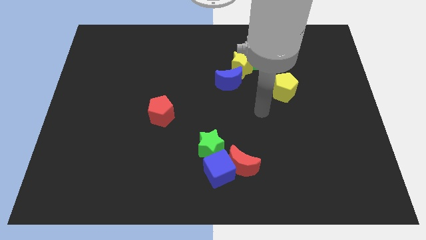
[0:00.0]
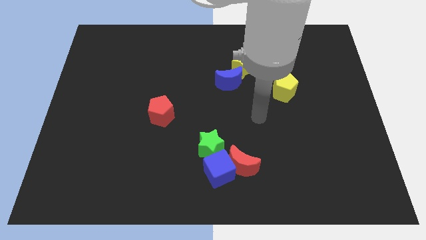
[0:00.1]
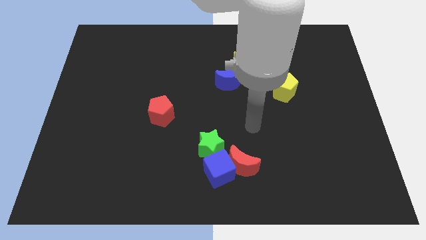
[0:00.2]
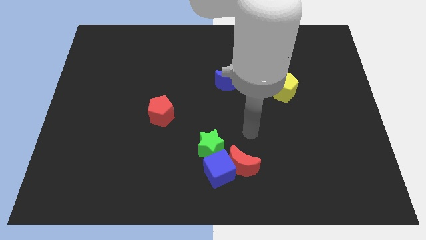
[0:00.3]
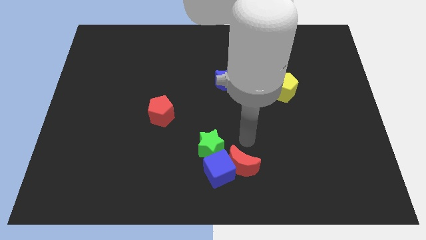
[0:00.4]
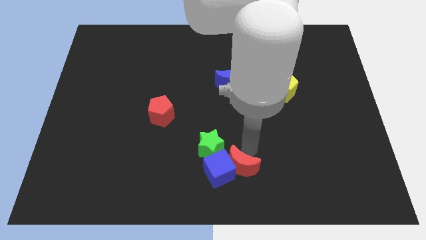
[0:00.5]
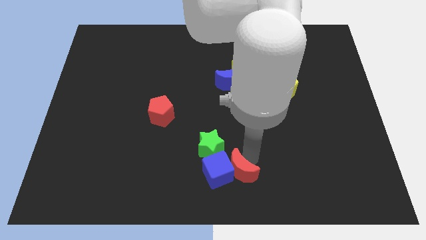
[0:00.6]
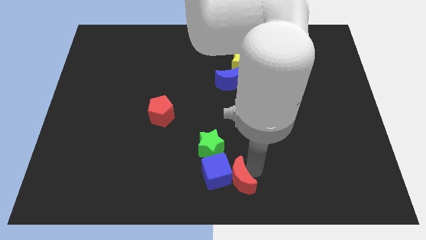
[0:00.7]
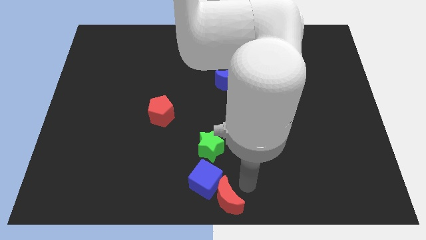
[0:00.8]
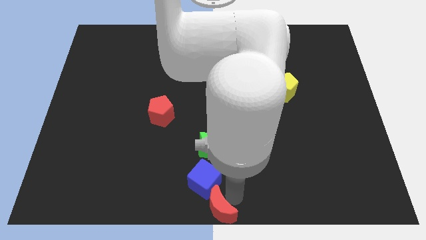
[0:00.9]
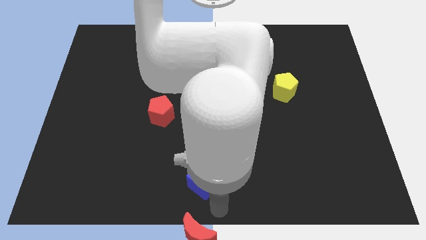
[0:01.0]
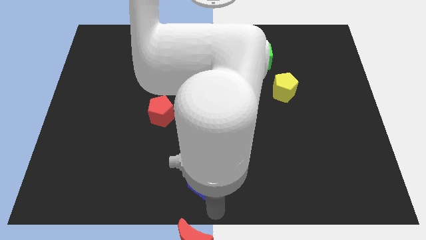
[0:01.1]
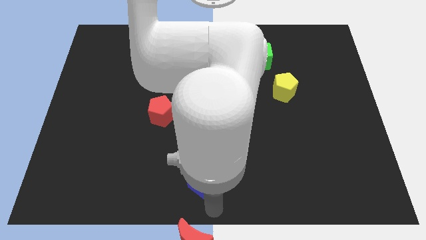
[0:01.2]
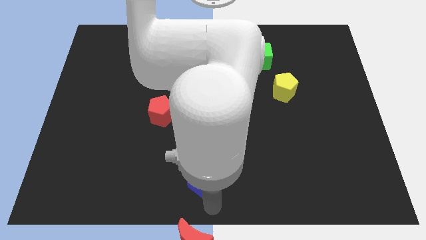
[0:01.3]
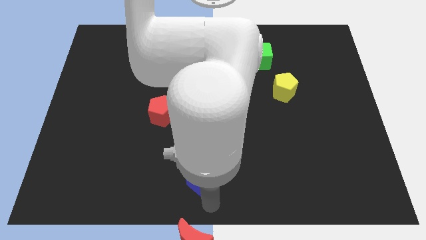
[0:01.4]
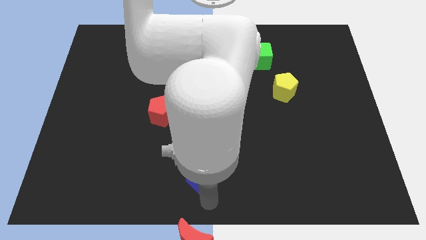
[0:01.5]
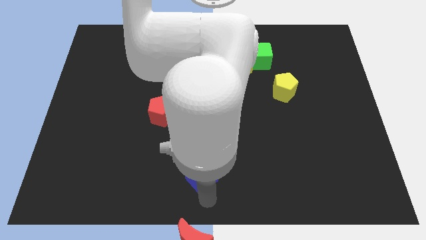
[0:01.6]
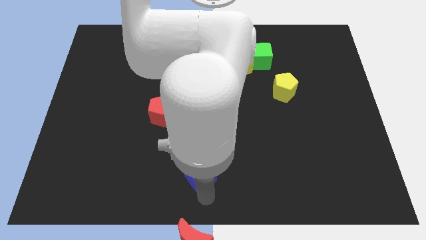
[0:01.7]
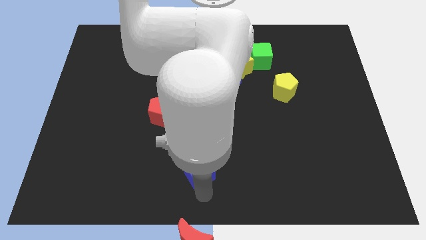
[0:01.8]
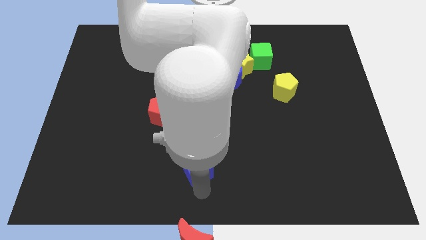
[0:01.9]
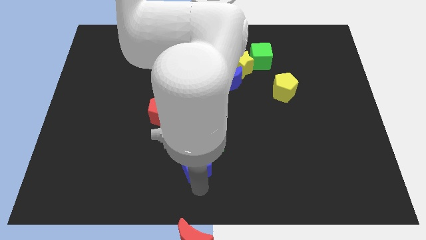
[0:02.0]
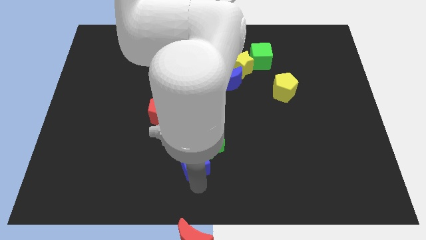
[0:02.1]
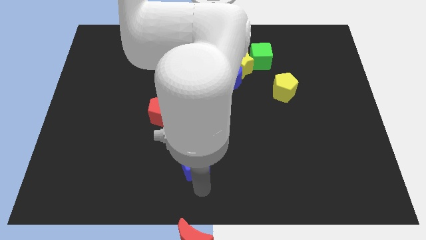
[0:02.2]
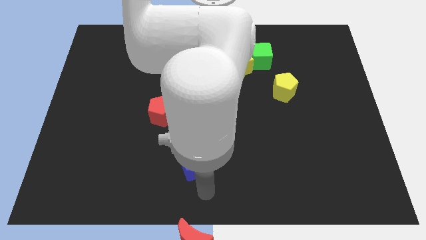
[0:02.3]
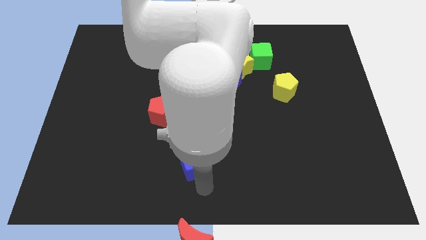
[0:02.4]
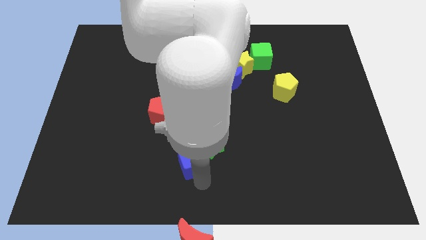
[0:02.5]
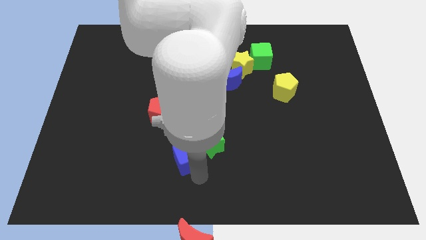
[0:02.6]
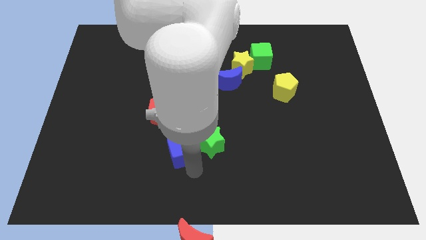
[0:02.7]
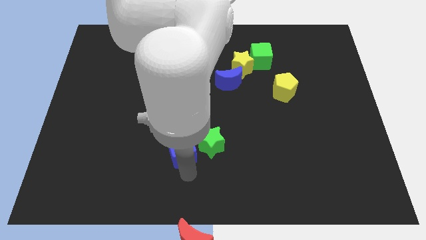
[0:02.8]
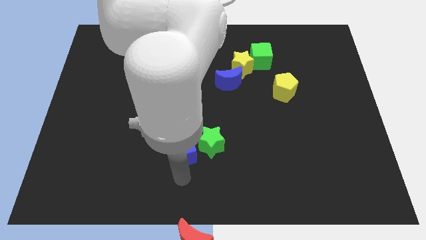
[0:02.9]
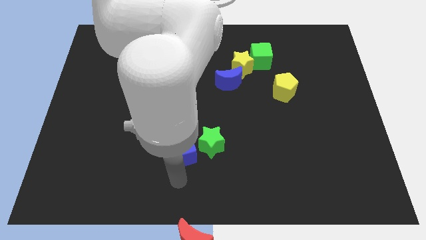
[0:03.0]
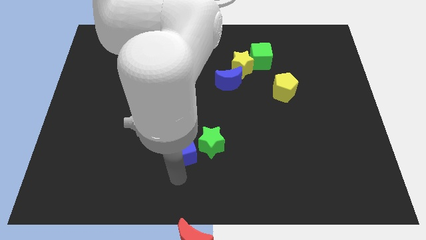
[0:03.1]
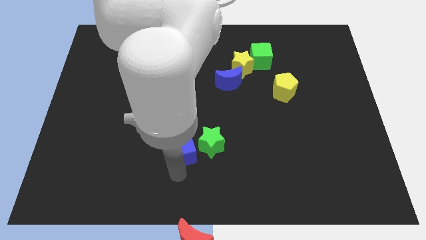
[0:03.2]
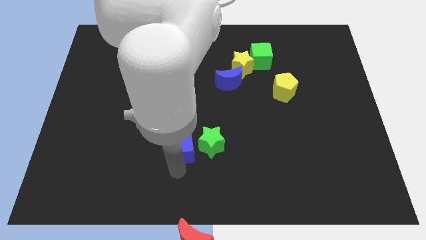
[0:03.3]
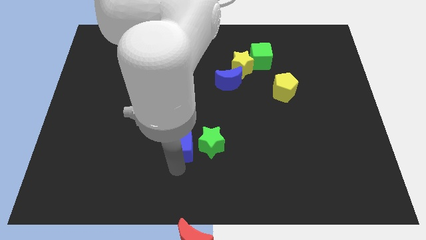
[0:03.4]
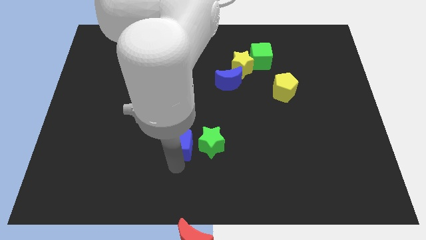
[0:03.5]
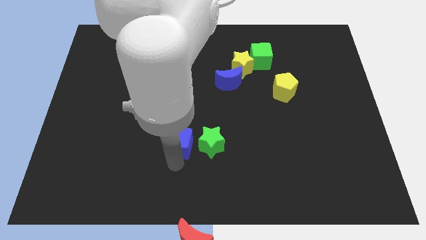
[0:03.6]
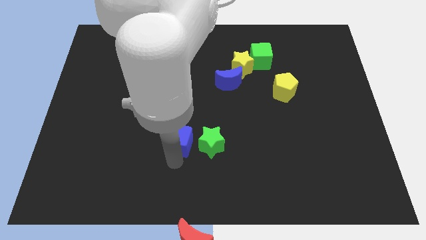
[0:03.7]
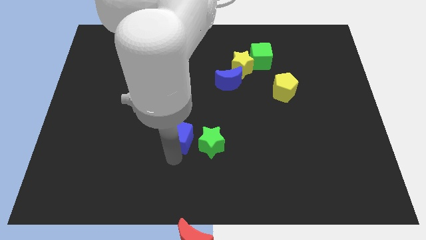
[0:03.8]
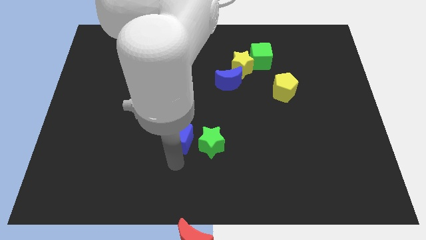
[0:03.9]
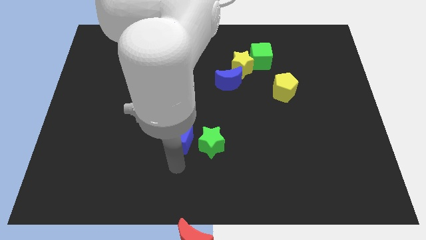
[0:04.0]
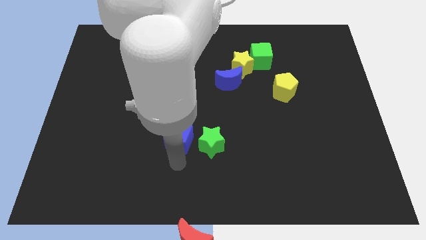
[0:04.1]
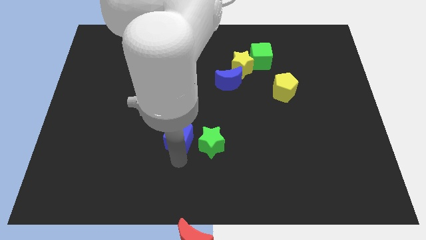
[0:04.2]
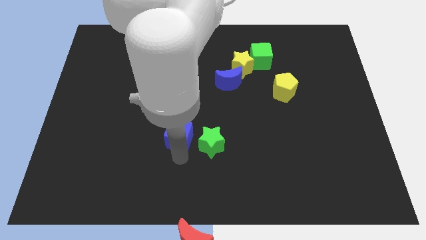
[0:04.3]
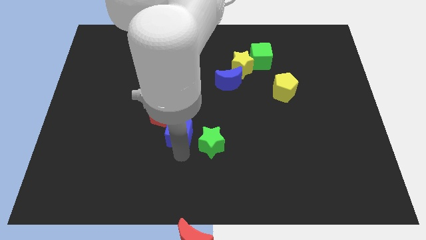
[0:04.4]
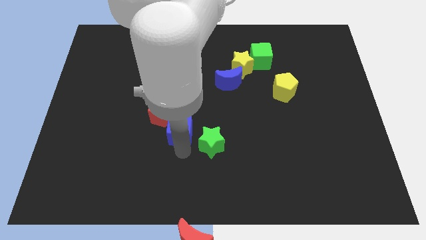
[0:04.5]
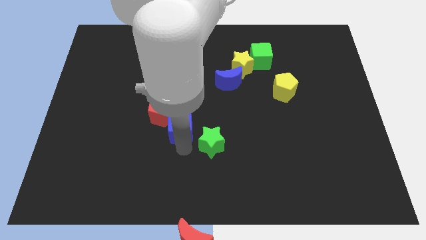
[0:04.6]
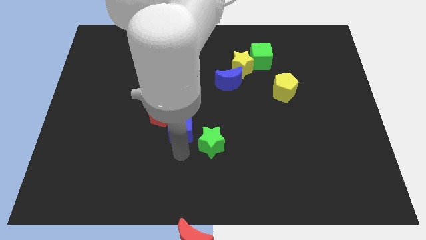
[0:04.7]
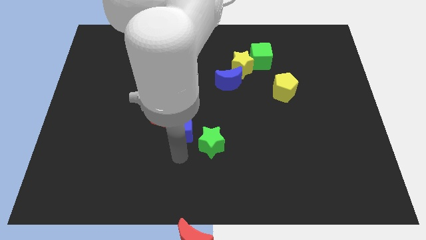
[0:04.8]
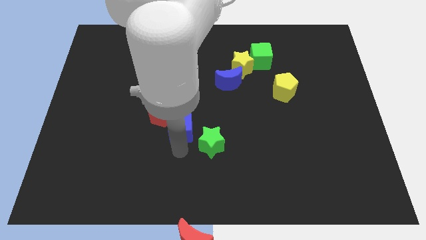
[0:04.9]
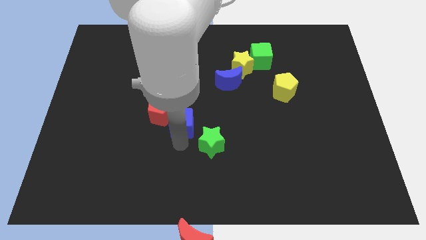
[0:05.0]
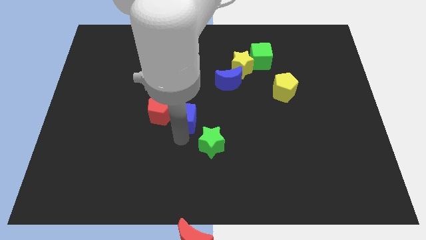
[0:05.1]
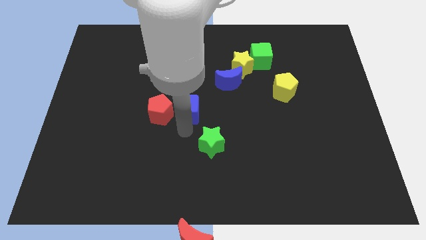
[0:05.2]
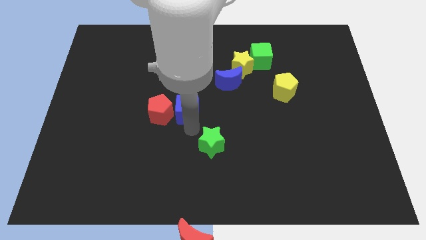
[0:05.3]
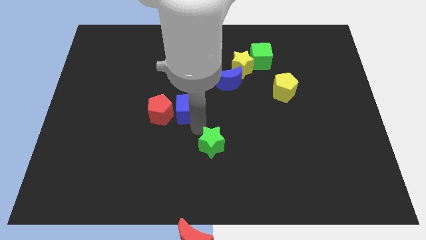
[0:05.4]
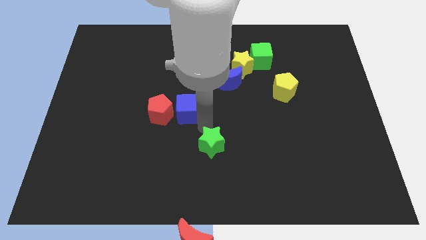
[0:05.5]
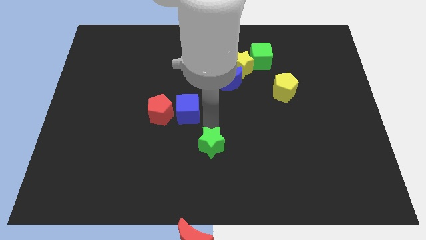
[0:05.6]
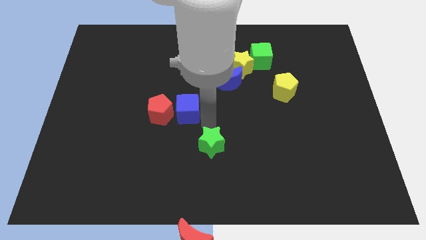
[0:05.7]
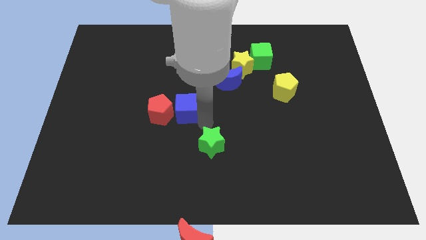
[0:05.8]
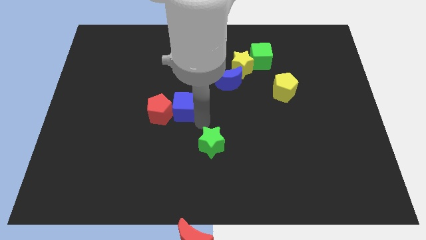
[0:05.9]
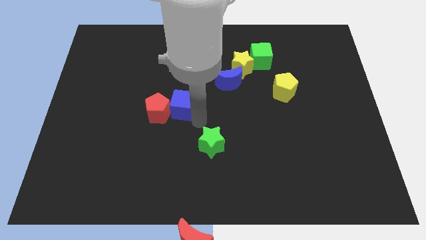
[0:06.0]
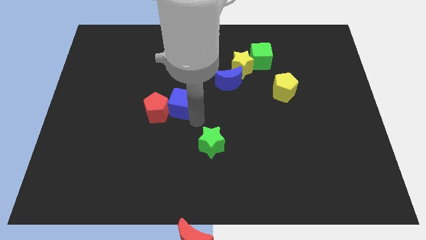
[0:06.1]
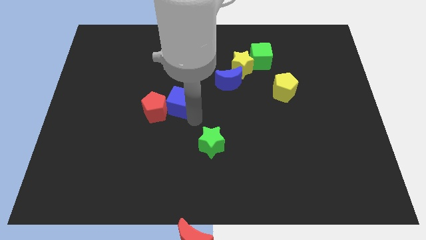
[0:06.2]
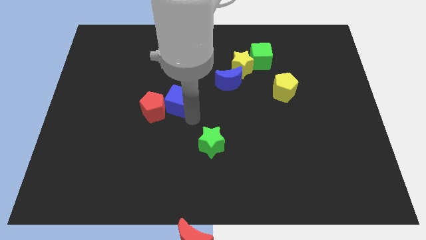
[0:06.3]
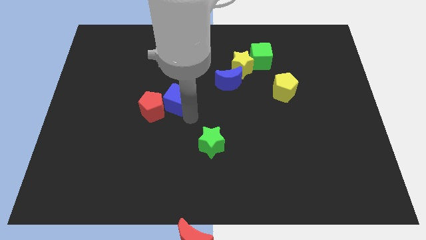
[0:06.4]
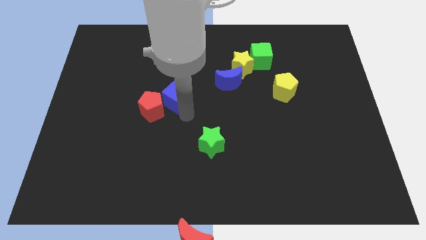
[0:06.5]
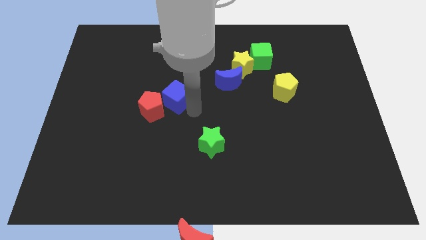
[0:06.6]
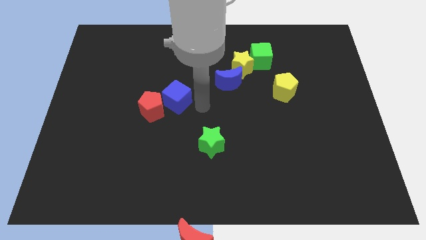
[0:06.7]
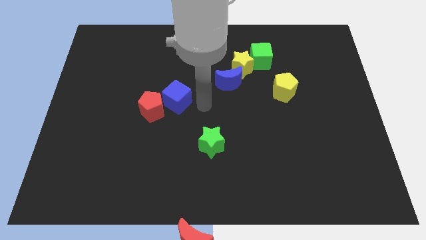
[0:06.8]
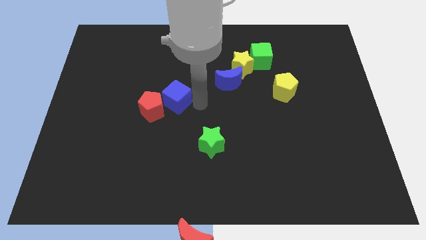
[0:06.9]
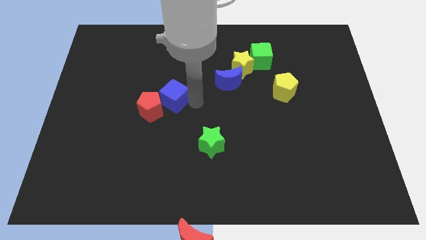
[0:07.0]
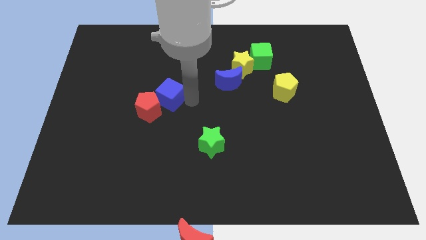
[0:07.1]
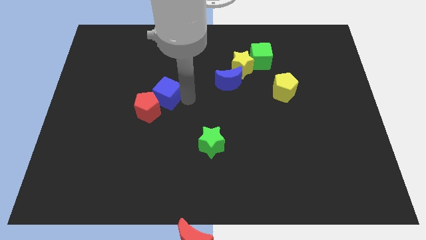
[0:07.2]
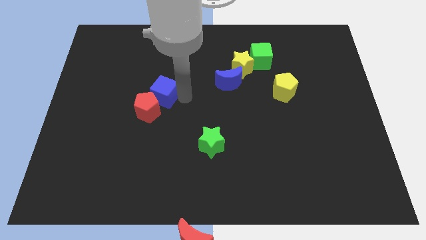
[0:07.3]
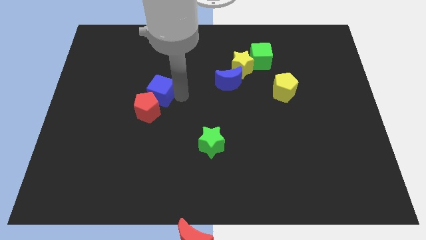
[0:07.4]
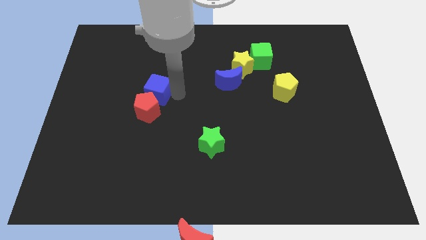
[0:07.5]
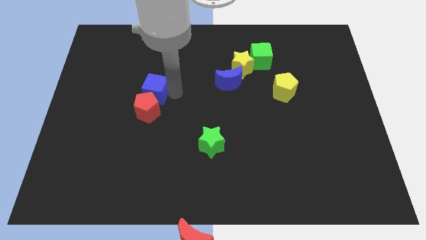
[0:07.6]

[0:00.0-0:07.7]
move the blue cube diagonally up and to the left of the red pentagon
